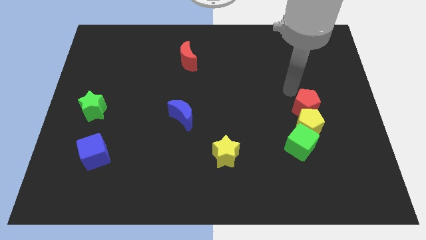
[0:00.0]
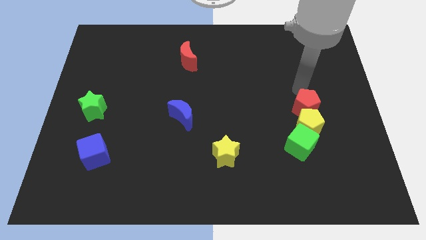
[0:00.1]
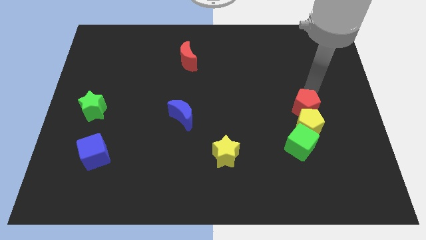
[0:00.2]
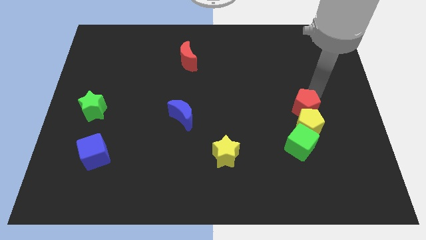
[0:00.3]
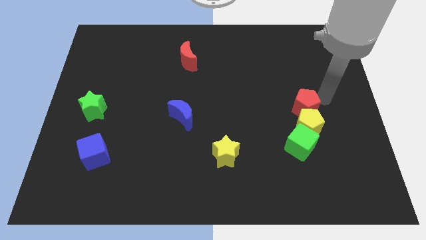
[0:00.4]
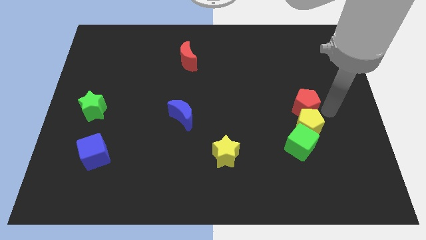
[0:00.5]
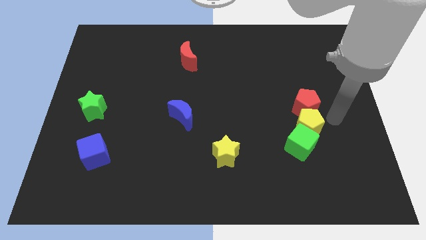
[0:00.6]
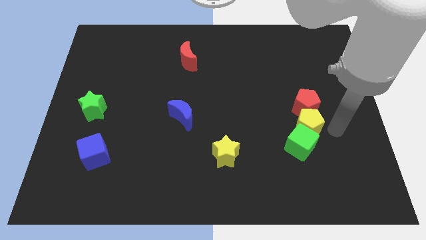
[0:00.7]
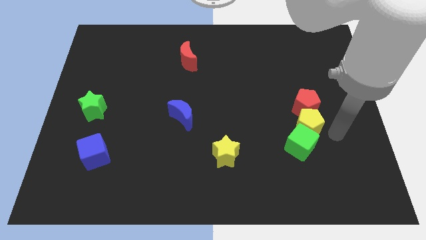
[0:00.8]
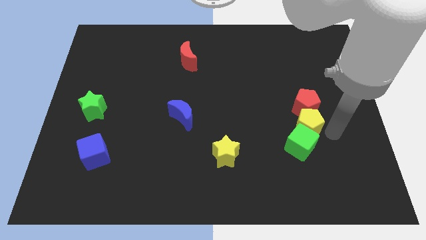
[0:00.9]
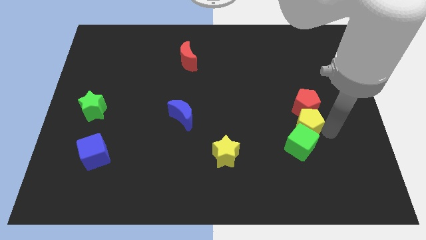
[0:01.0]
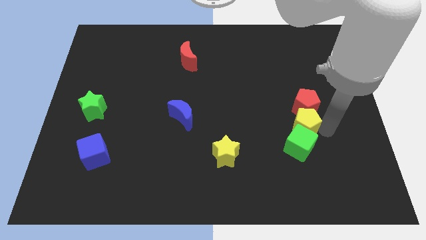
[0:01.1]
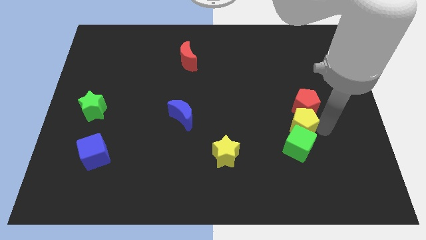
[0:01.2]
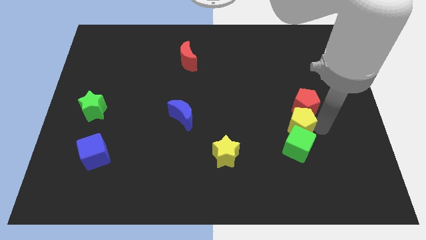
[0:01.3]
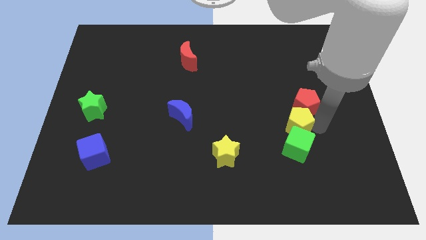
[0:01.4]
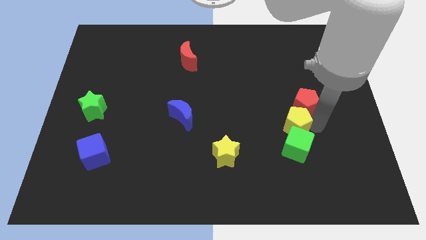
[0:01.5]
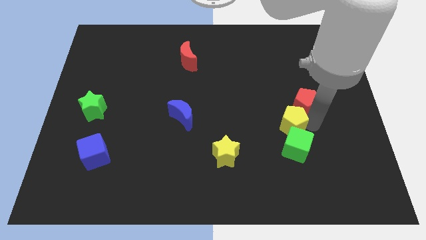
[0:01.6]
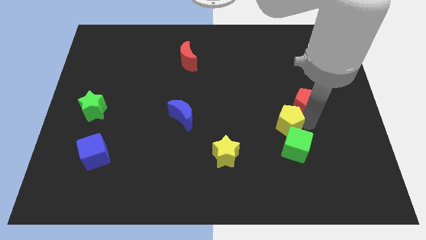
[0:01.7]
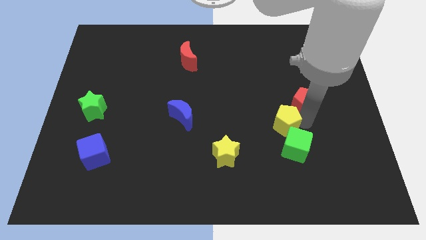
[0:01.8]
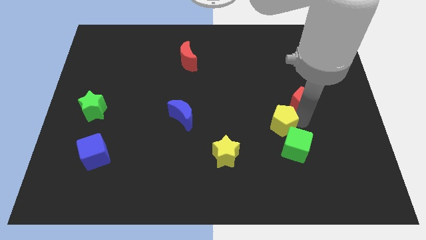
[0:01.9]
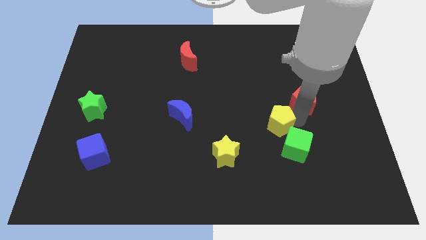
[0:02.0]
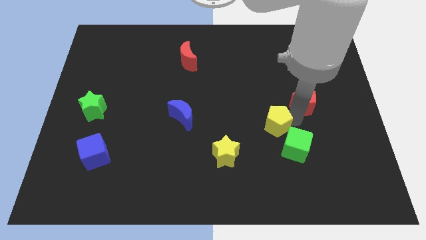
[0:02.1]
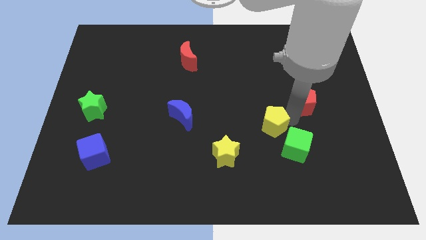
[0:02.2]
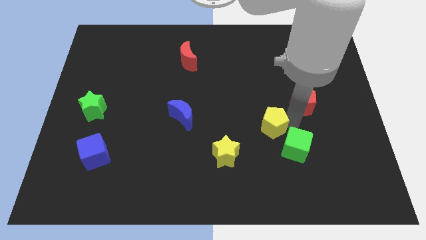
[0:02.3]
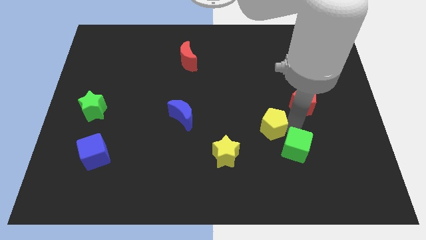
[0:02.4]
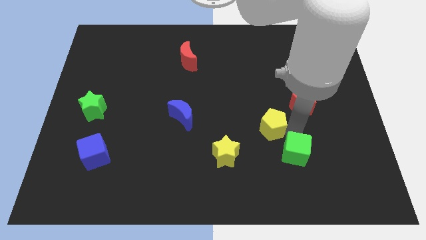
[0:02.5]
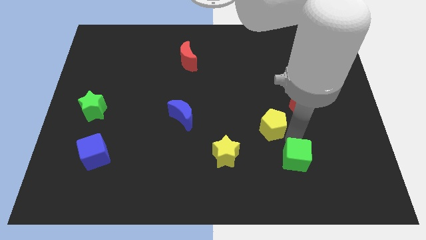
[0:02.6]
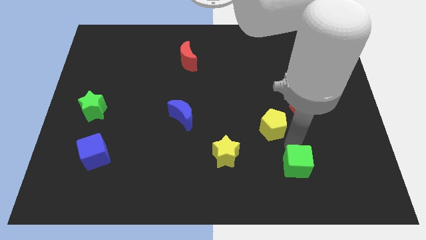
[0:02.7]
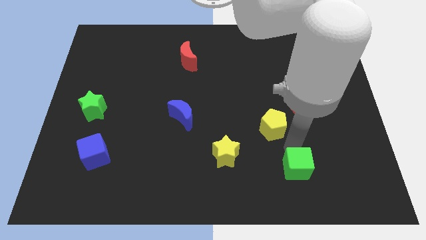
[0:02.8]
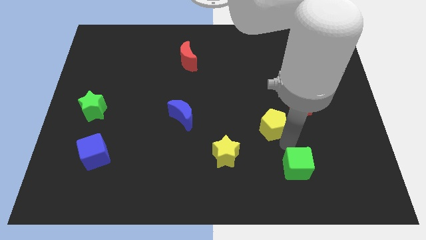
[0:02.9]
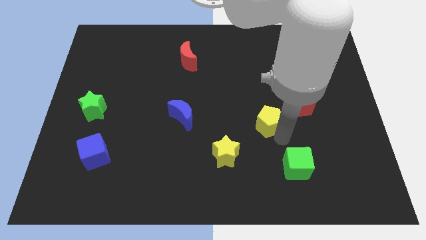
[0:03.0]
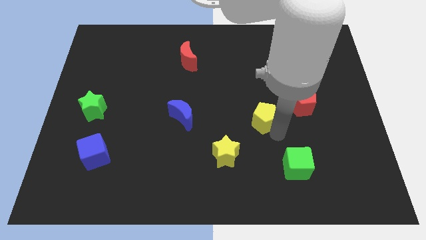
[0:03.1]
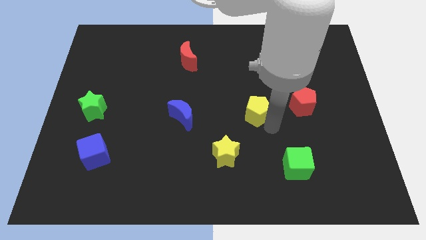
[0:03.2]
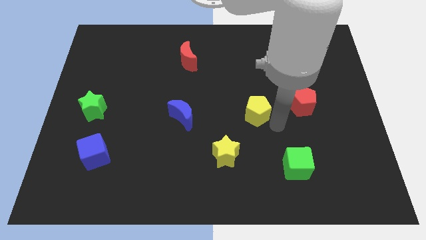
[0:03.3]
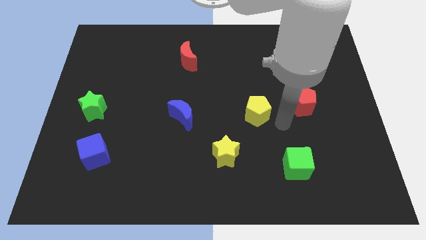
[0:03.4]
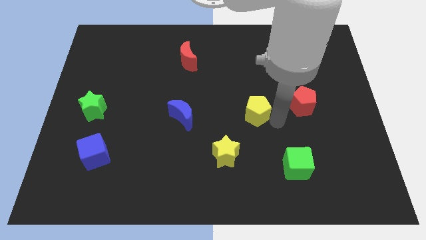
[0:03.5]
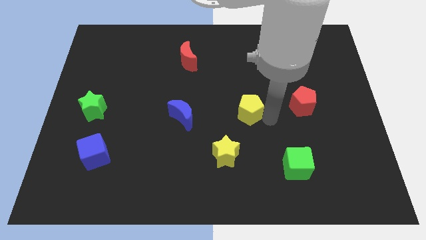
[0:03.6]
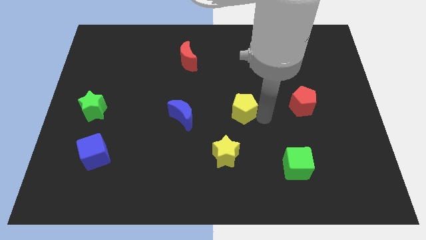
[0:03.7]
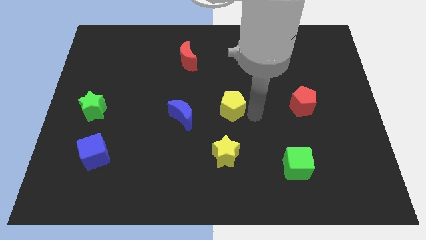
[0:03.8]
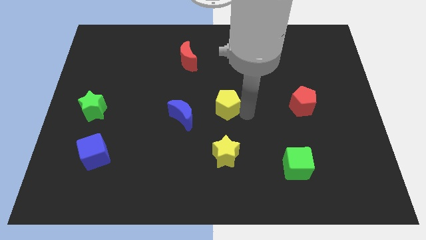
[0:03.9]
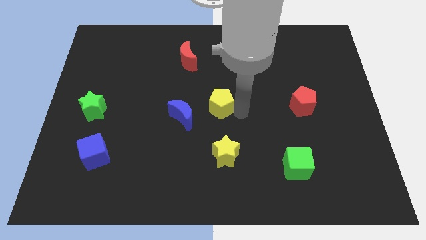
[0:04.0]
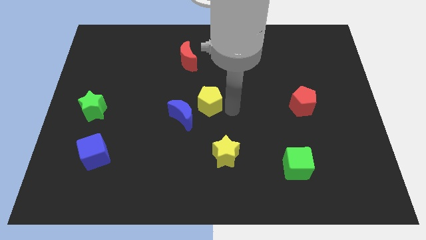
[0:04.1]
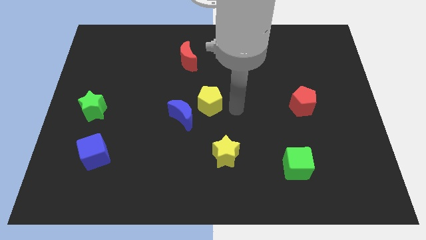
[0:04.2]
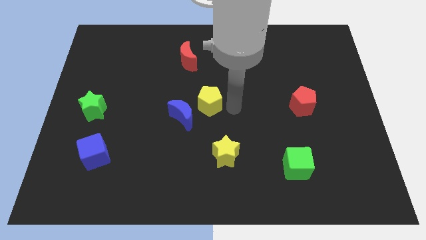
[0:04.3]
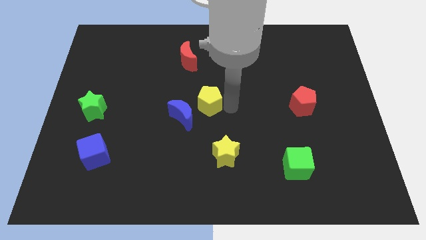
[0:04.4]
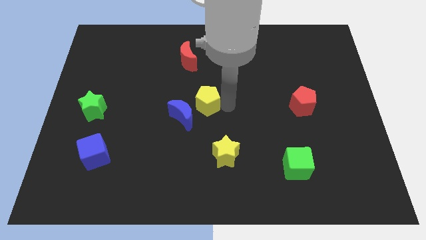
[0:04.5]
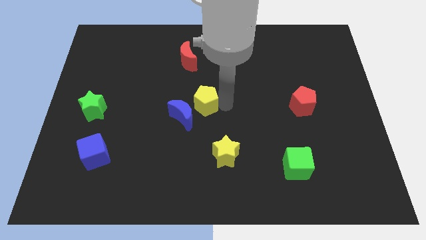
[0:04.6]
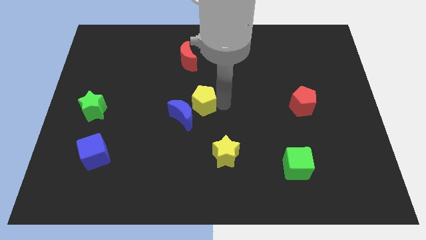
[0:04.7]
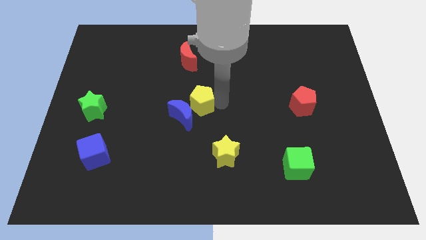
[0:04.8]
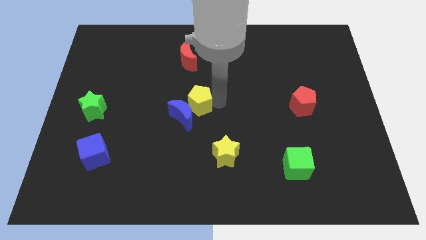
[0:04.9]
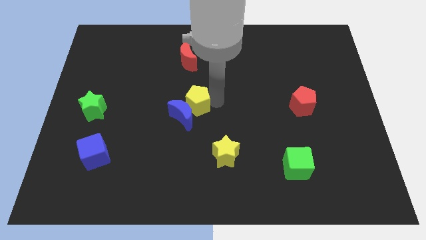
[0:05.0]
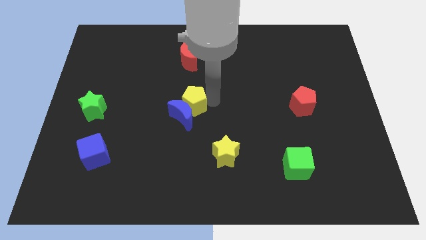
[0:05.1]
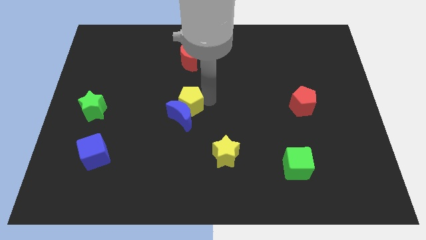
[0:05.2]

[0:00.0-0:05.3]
move the yellow pentagon to the top left of the blue moon

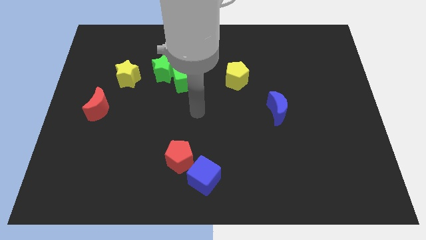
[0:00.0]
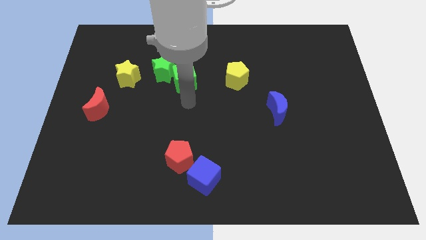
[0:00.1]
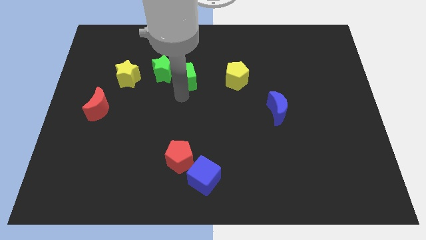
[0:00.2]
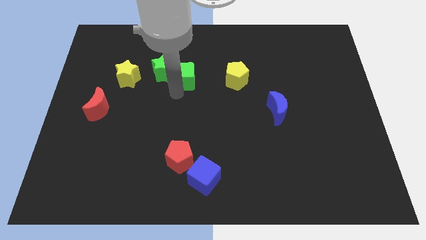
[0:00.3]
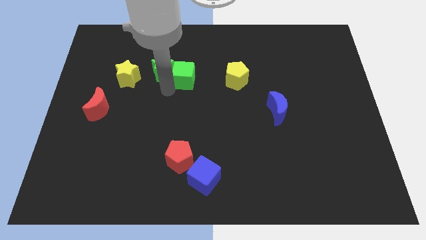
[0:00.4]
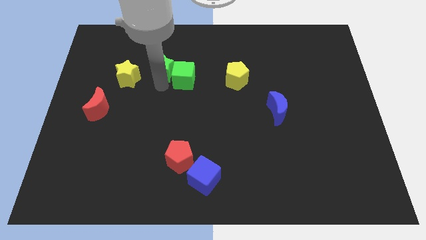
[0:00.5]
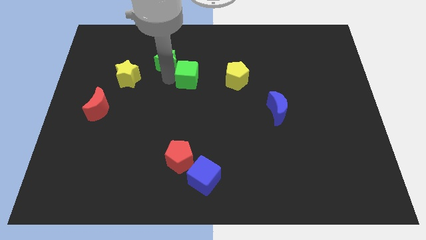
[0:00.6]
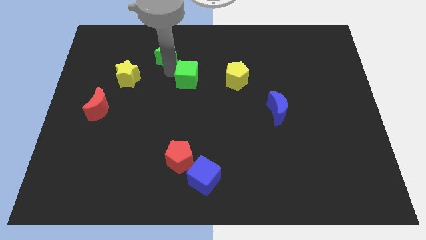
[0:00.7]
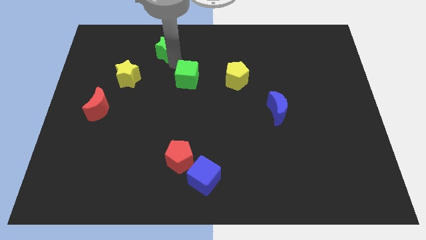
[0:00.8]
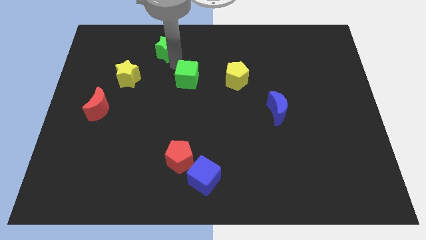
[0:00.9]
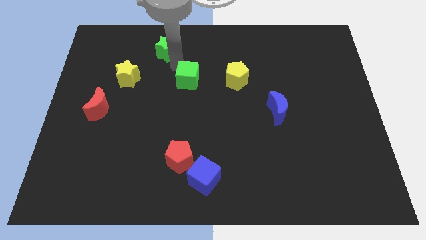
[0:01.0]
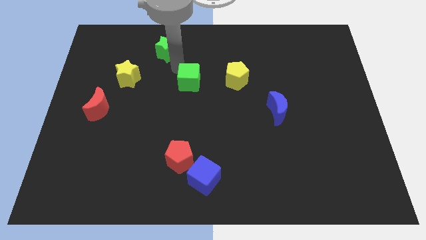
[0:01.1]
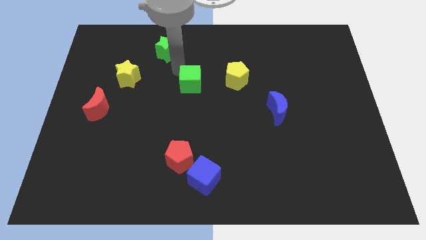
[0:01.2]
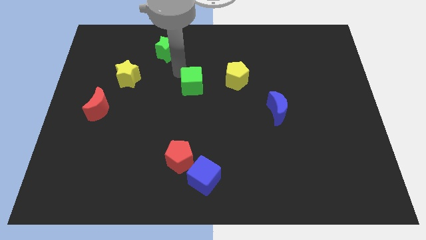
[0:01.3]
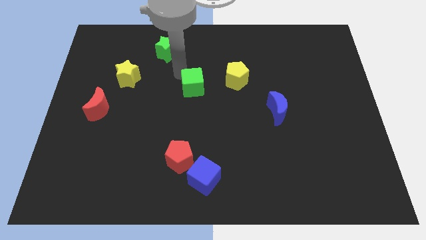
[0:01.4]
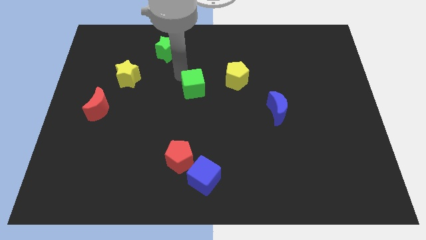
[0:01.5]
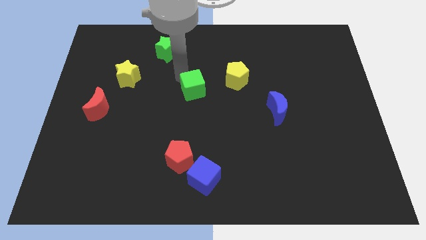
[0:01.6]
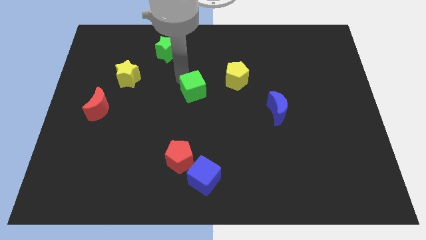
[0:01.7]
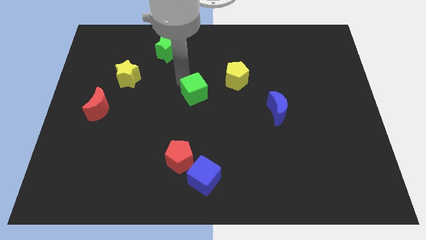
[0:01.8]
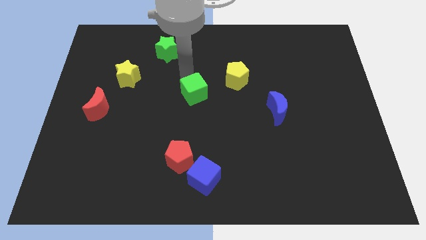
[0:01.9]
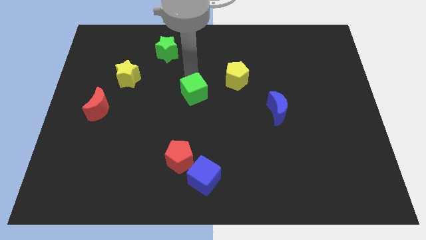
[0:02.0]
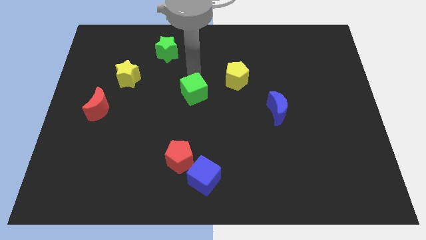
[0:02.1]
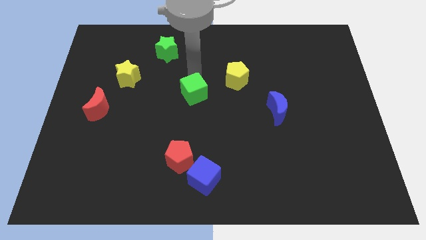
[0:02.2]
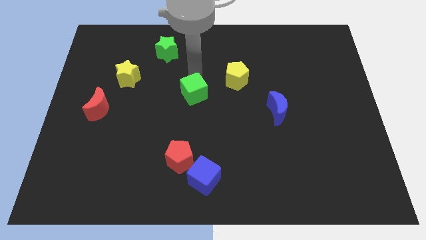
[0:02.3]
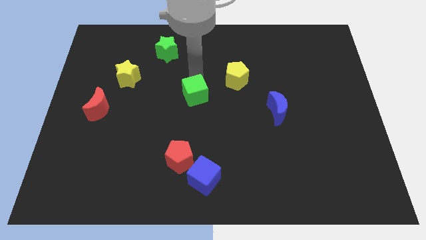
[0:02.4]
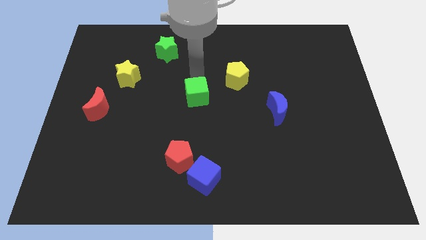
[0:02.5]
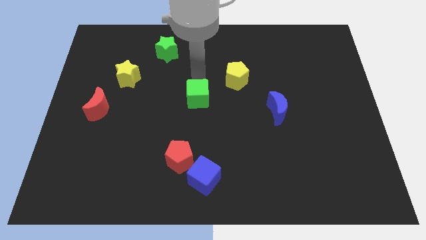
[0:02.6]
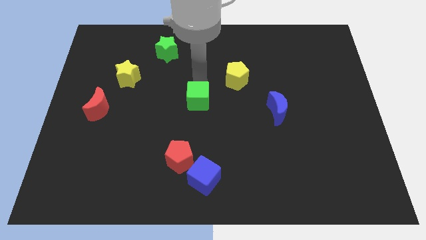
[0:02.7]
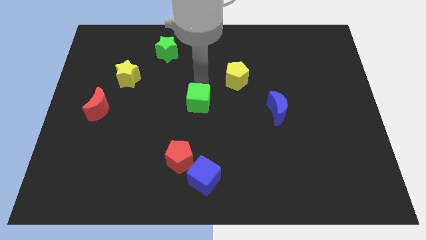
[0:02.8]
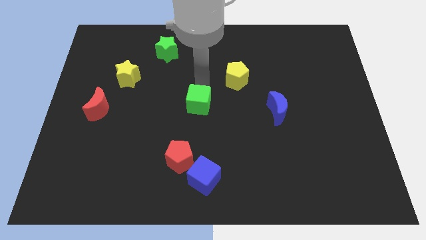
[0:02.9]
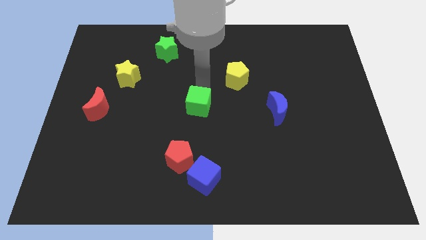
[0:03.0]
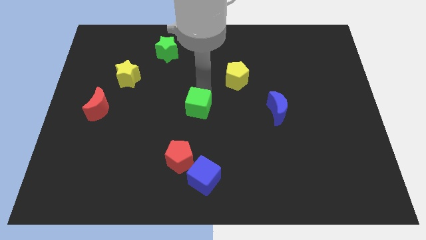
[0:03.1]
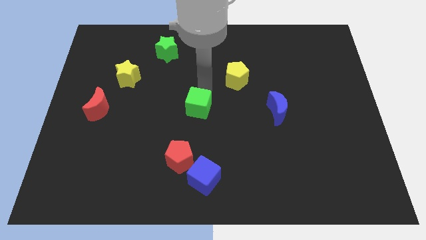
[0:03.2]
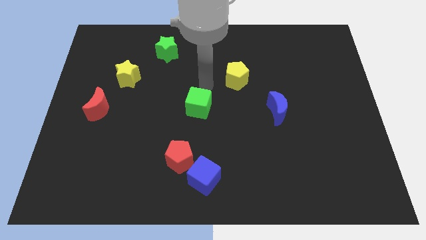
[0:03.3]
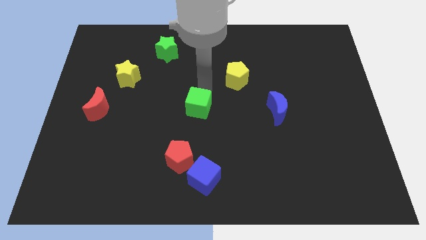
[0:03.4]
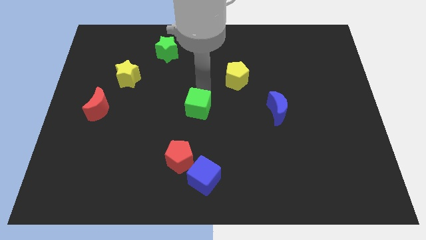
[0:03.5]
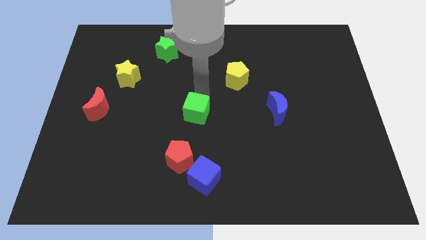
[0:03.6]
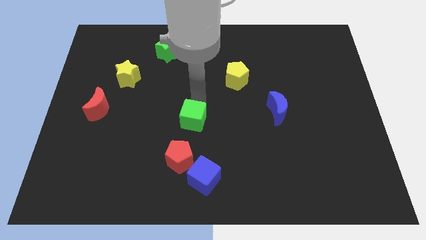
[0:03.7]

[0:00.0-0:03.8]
push the green cube above the blue cube
